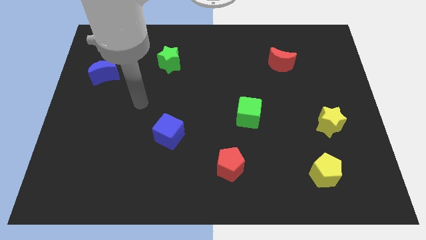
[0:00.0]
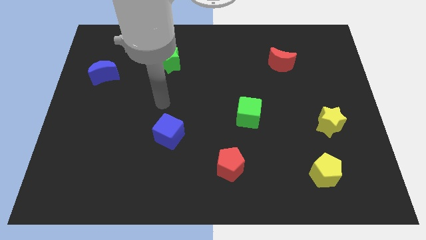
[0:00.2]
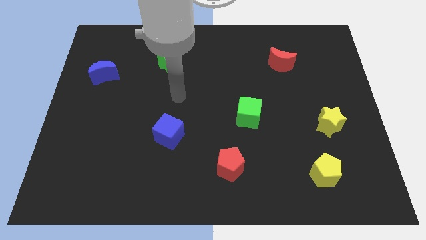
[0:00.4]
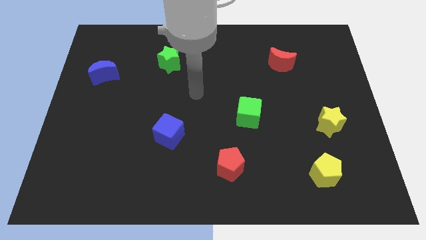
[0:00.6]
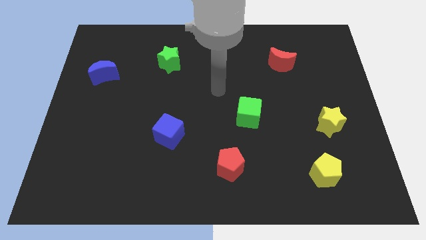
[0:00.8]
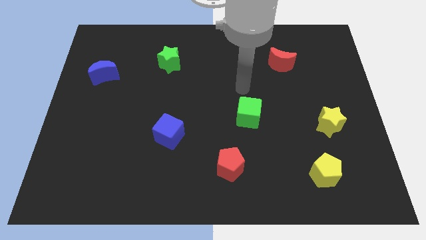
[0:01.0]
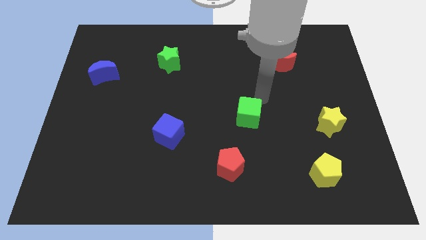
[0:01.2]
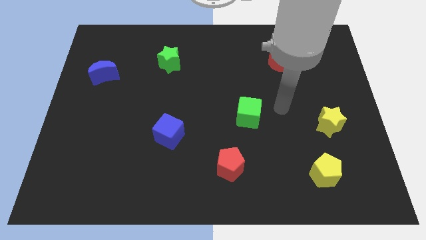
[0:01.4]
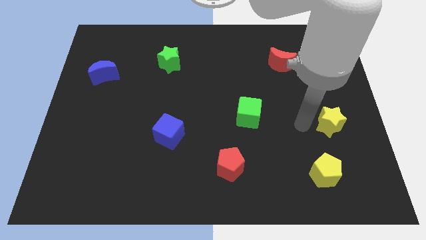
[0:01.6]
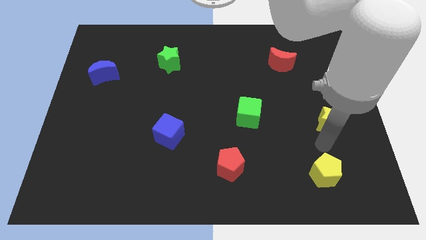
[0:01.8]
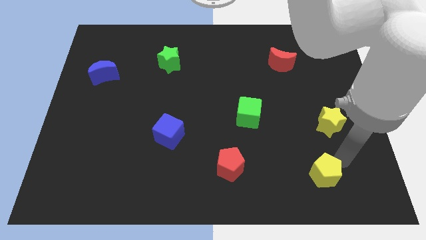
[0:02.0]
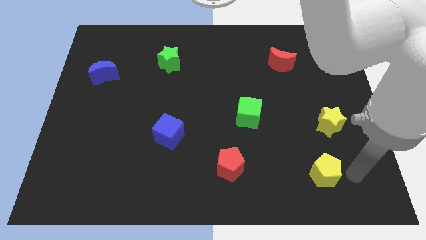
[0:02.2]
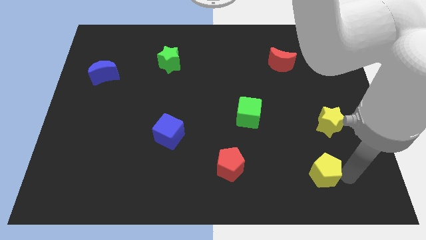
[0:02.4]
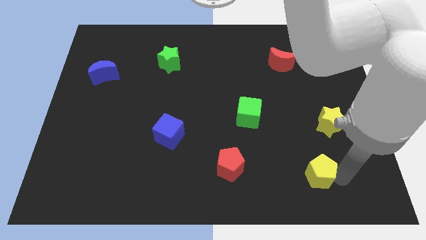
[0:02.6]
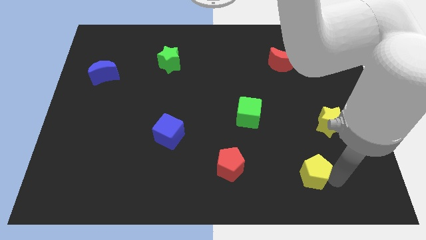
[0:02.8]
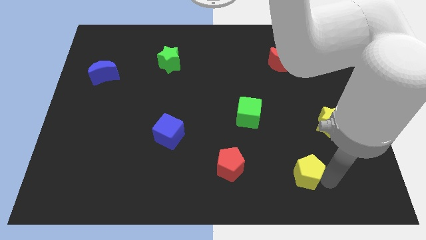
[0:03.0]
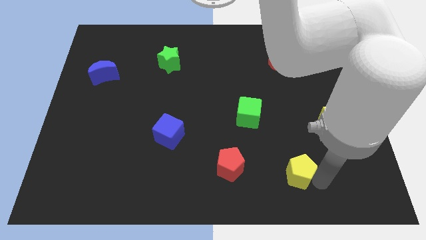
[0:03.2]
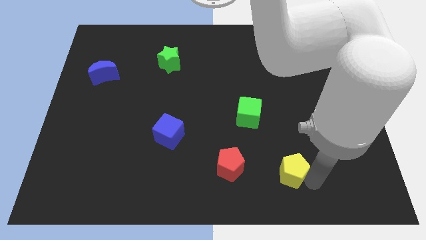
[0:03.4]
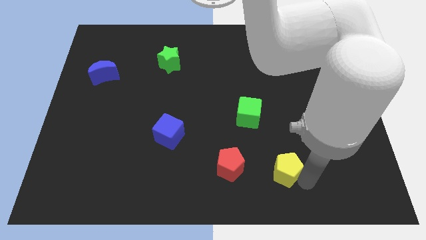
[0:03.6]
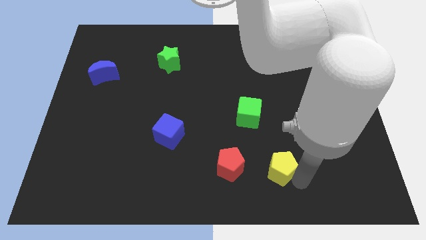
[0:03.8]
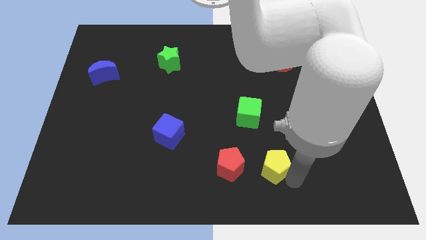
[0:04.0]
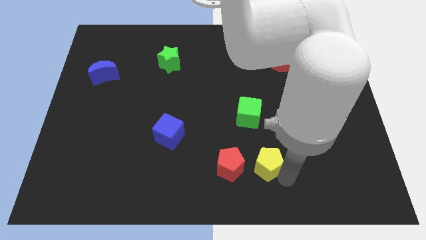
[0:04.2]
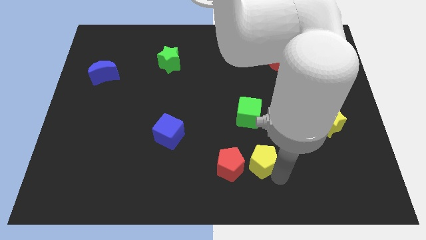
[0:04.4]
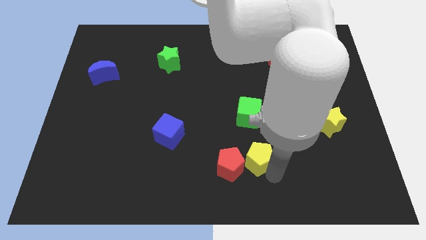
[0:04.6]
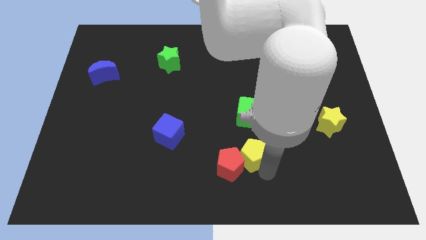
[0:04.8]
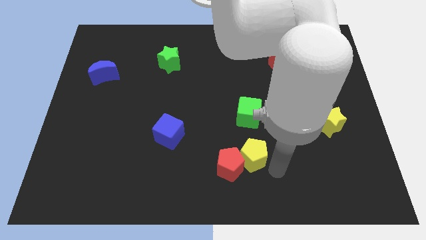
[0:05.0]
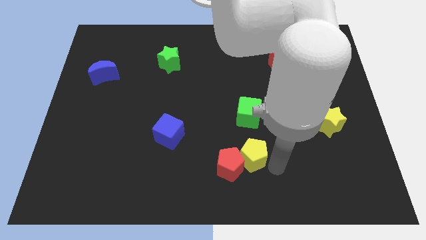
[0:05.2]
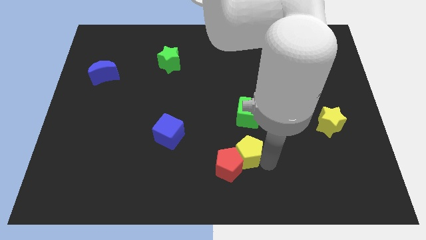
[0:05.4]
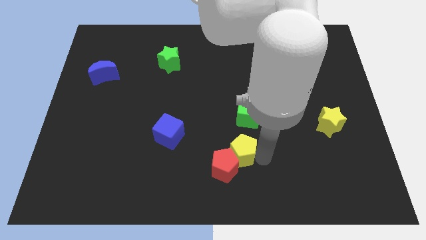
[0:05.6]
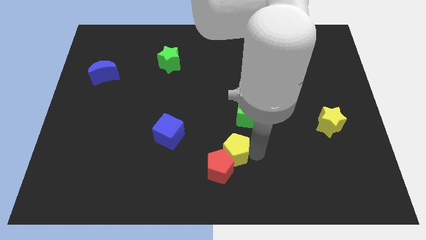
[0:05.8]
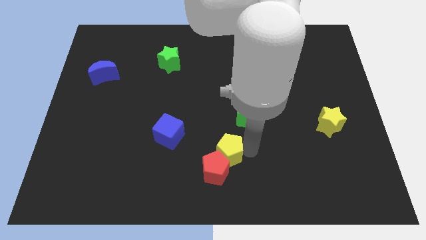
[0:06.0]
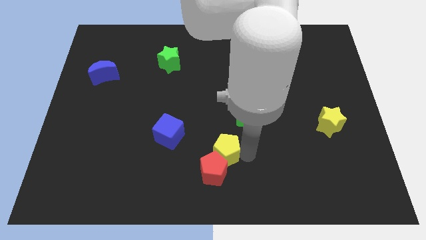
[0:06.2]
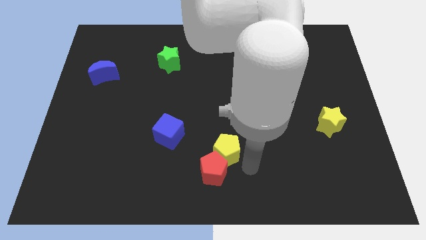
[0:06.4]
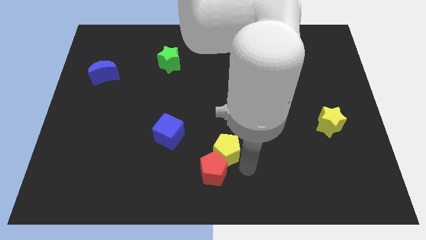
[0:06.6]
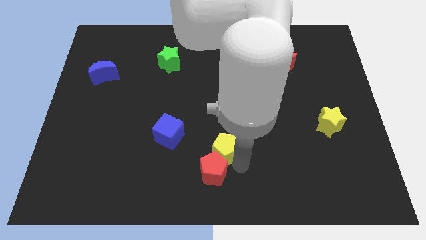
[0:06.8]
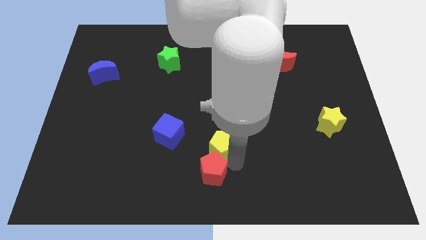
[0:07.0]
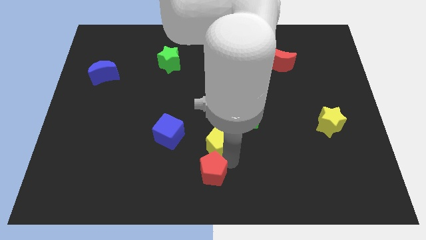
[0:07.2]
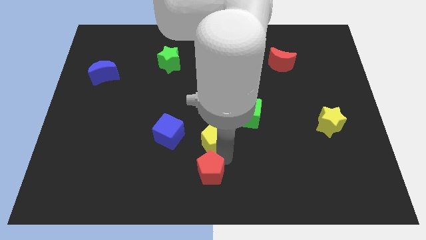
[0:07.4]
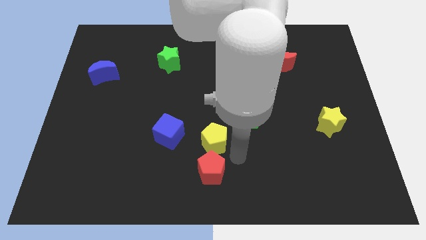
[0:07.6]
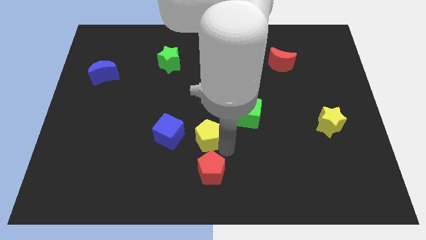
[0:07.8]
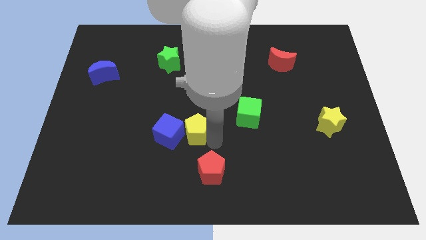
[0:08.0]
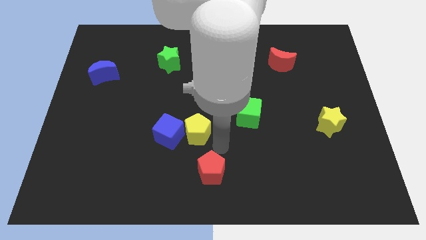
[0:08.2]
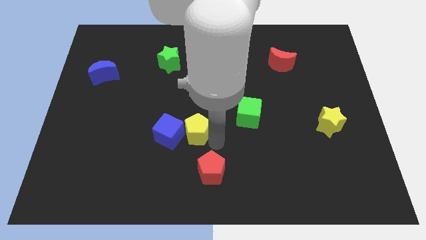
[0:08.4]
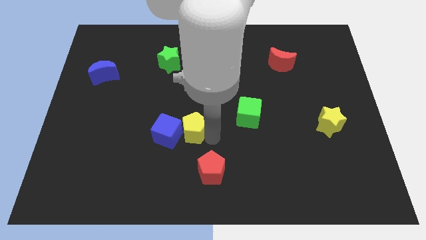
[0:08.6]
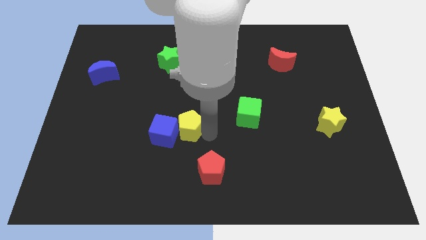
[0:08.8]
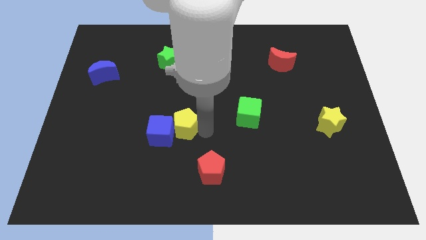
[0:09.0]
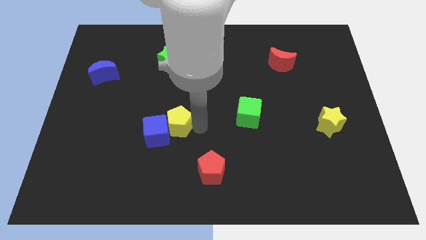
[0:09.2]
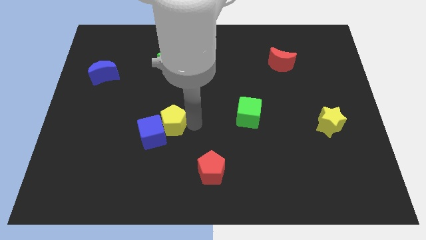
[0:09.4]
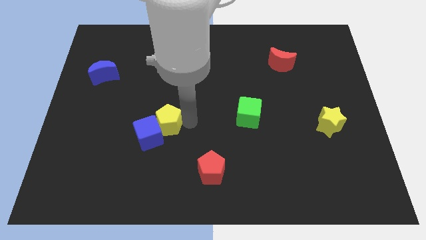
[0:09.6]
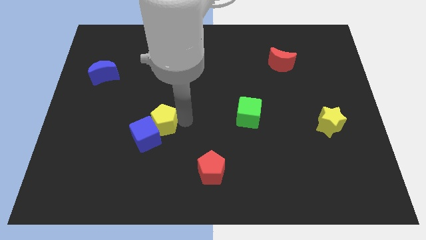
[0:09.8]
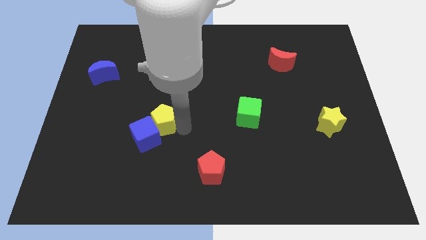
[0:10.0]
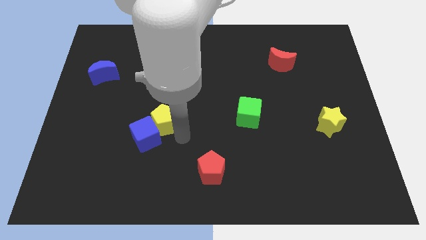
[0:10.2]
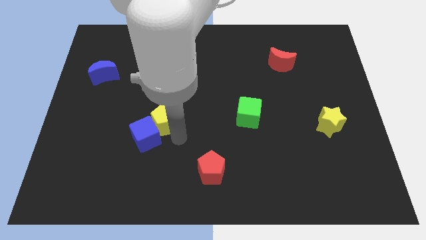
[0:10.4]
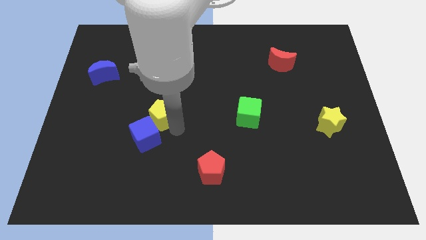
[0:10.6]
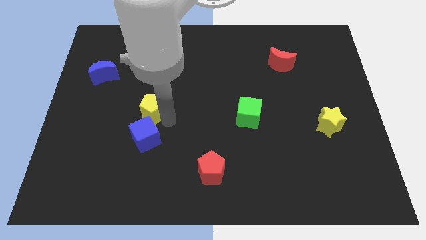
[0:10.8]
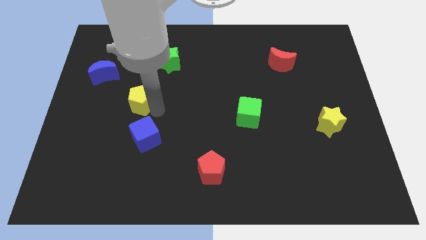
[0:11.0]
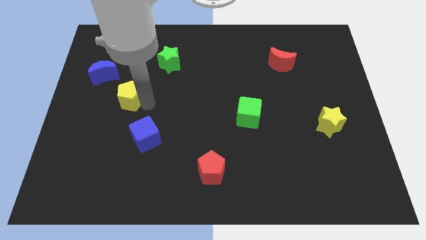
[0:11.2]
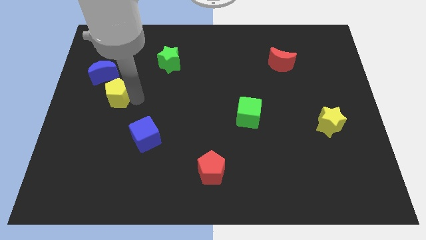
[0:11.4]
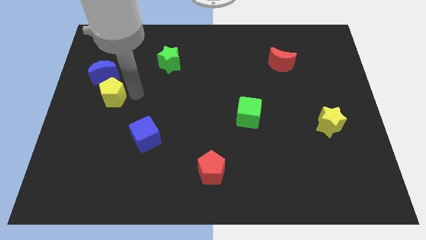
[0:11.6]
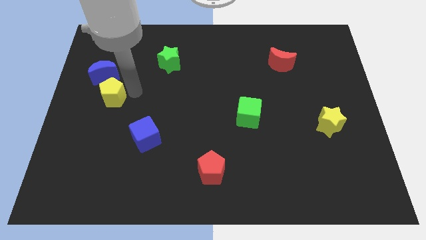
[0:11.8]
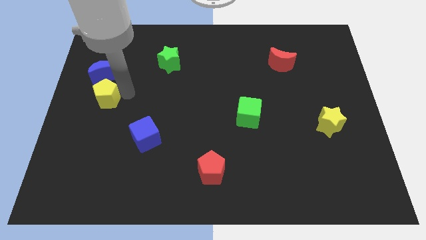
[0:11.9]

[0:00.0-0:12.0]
put the yellow pentagon to the left side of the board

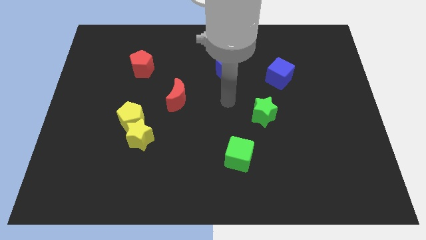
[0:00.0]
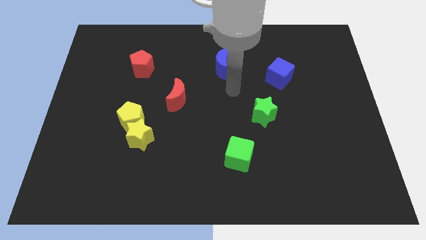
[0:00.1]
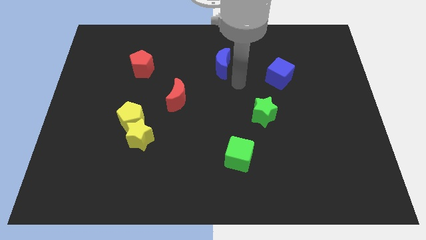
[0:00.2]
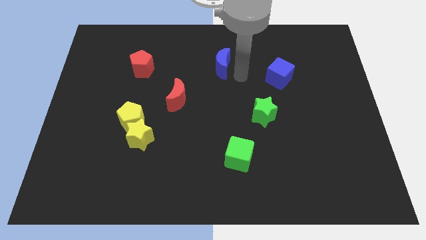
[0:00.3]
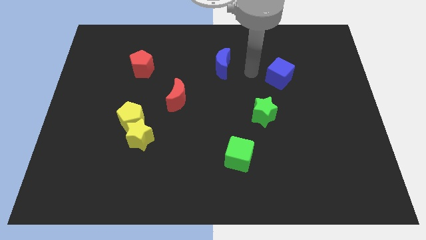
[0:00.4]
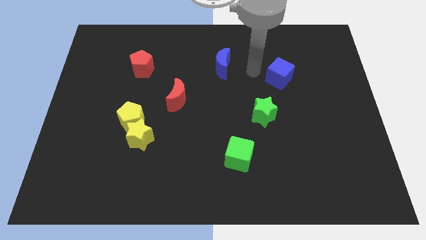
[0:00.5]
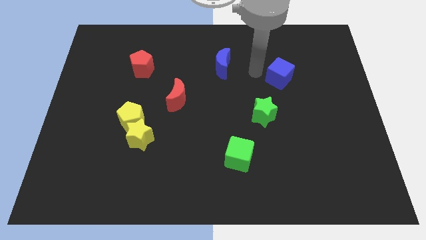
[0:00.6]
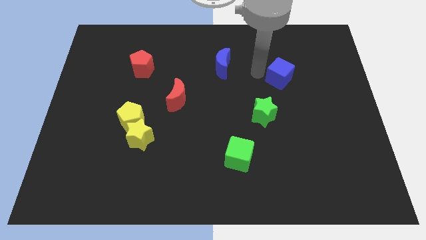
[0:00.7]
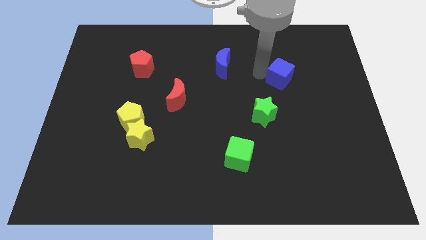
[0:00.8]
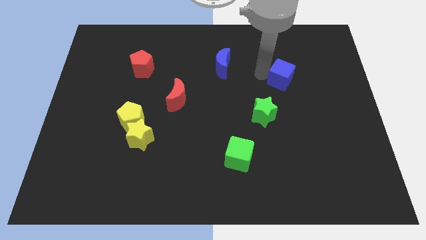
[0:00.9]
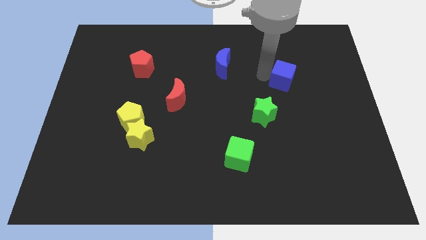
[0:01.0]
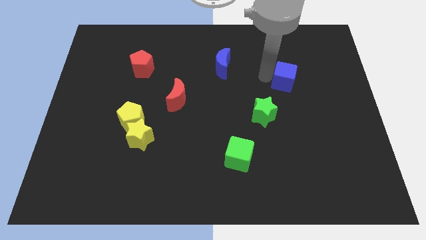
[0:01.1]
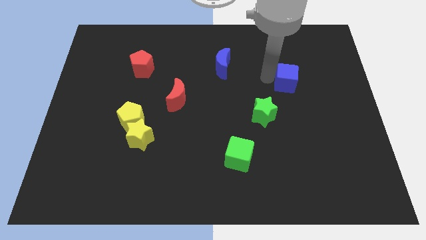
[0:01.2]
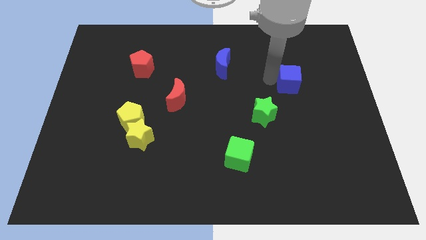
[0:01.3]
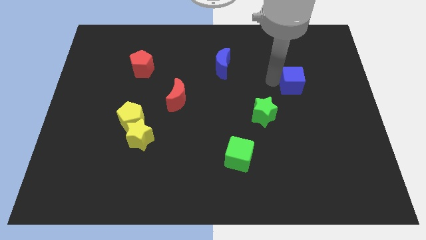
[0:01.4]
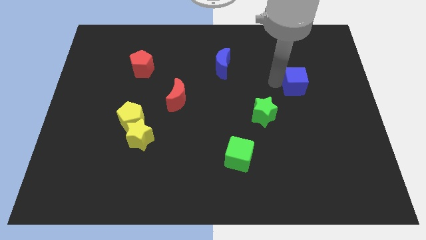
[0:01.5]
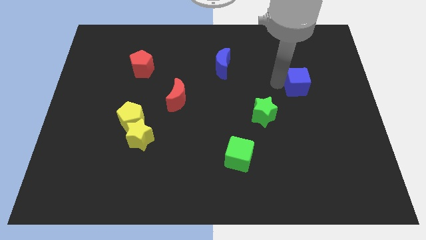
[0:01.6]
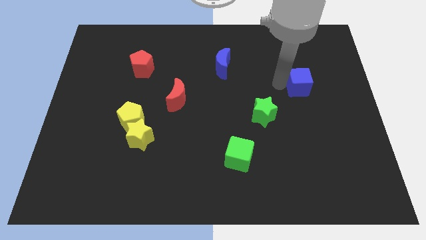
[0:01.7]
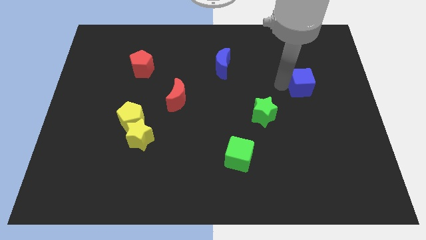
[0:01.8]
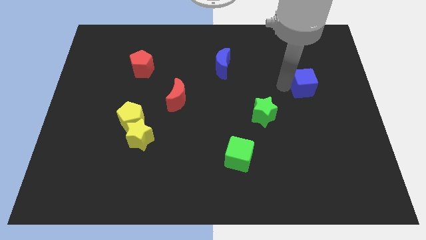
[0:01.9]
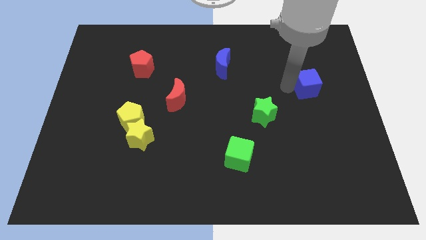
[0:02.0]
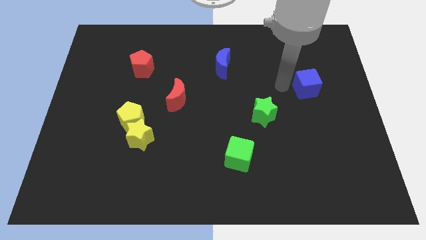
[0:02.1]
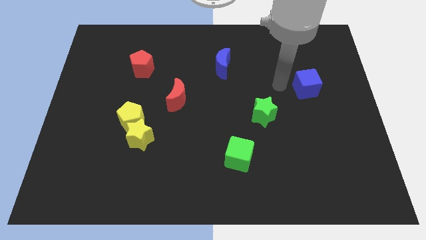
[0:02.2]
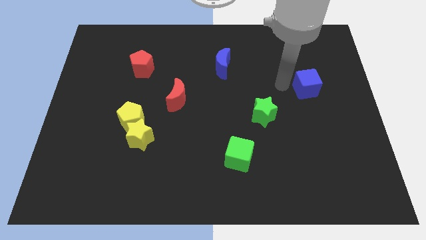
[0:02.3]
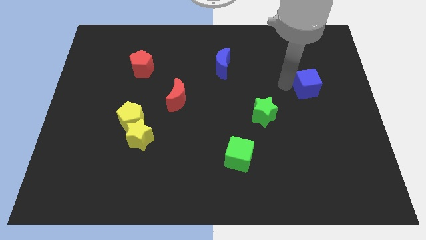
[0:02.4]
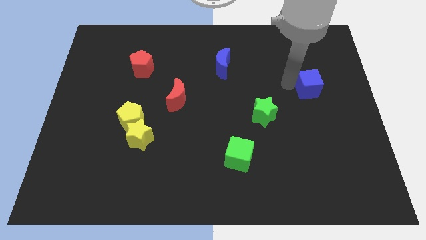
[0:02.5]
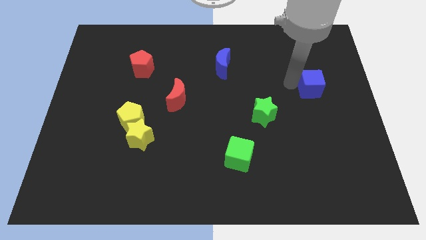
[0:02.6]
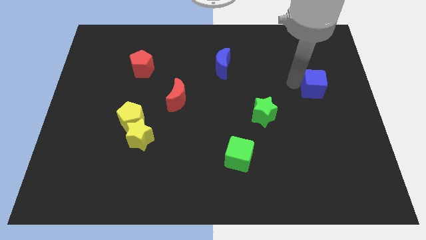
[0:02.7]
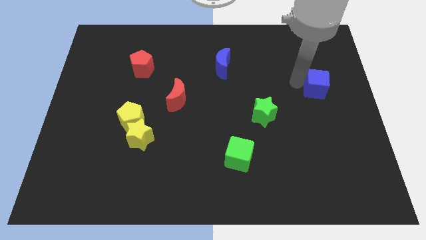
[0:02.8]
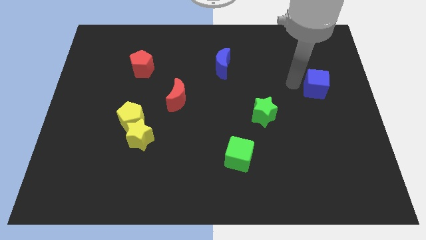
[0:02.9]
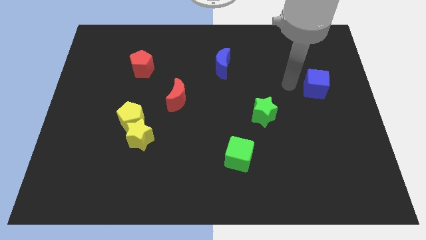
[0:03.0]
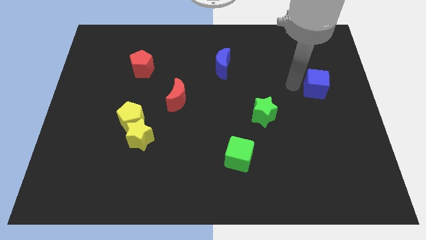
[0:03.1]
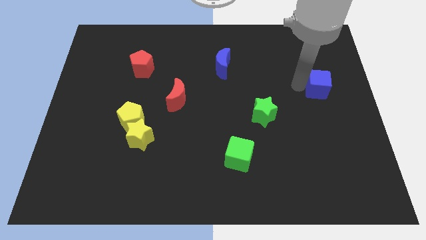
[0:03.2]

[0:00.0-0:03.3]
put the blue cube to the center right
